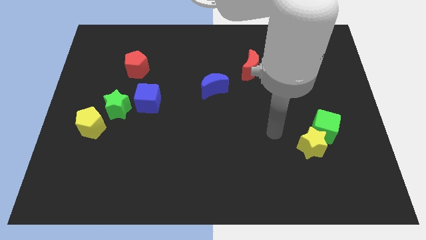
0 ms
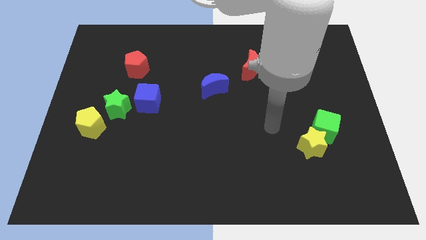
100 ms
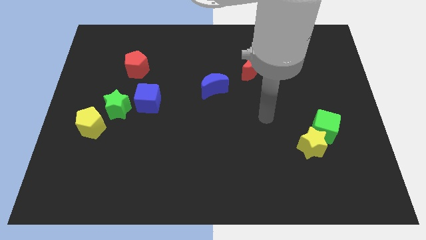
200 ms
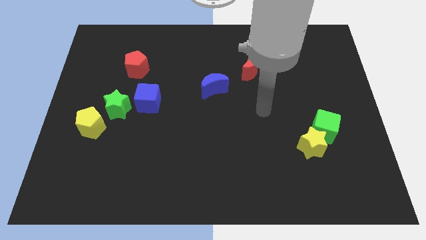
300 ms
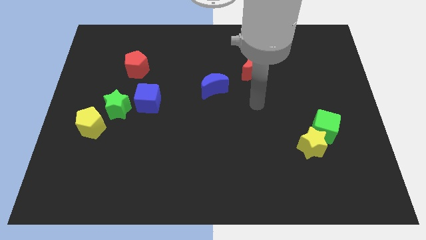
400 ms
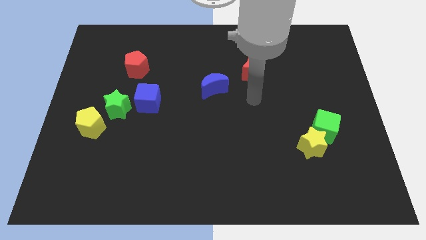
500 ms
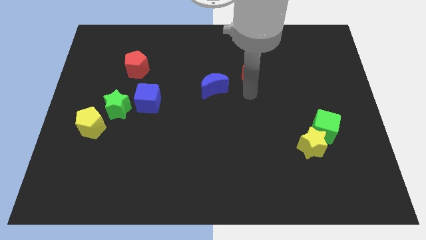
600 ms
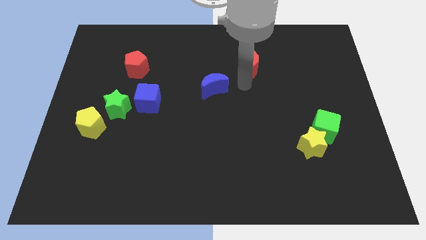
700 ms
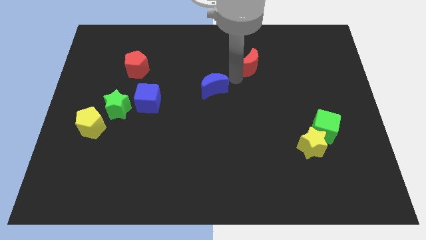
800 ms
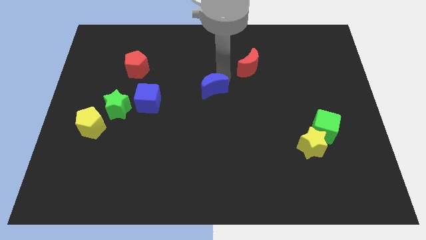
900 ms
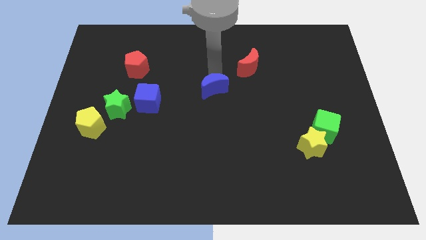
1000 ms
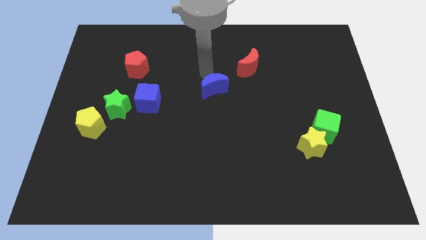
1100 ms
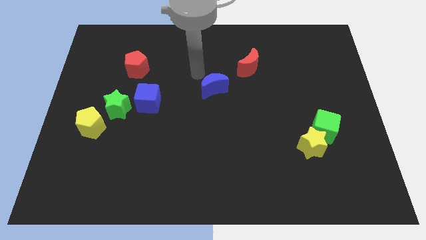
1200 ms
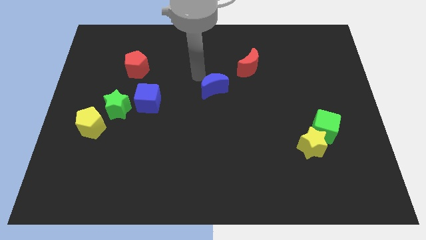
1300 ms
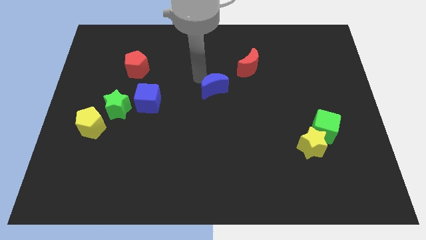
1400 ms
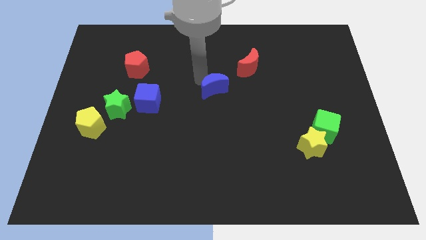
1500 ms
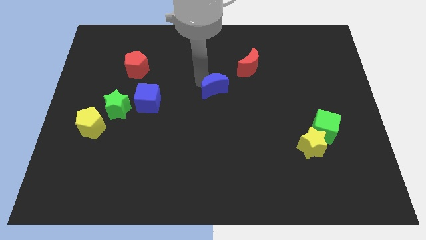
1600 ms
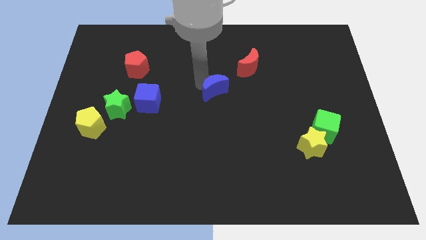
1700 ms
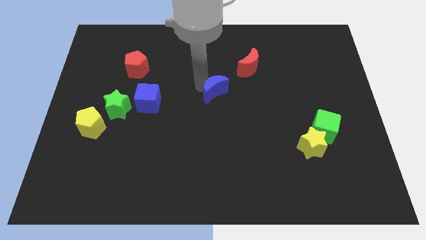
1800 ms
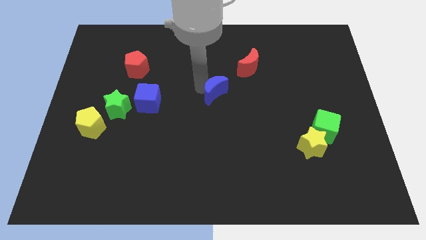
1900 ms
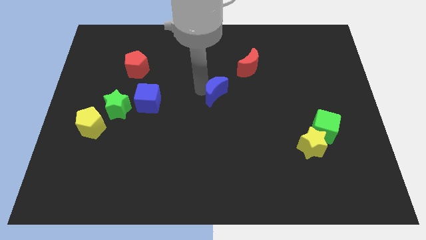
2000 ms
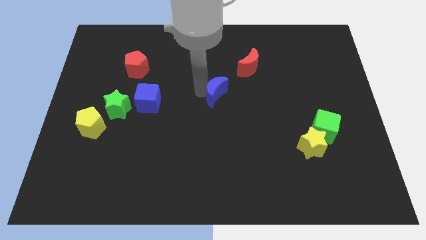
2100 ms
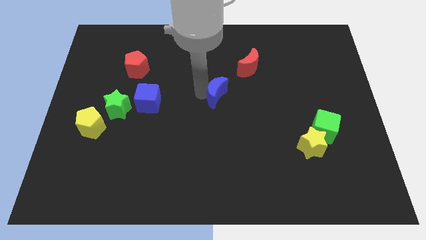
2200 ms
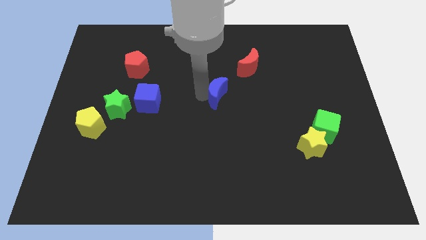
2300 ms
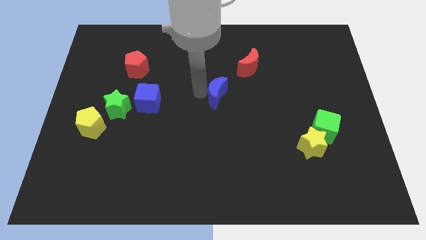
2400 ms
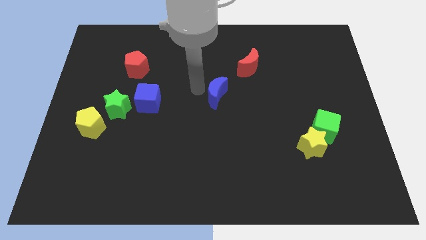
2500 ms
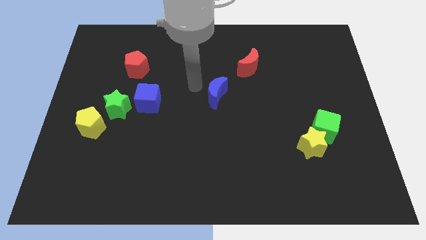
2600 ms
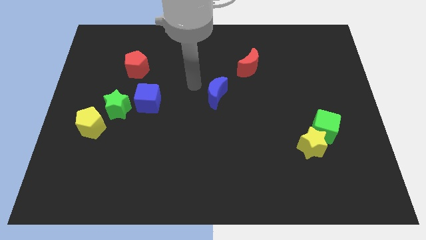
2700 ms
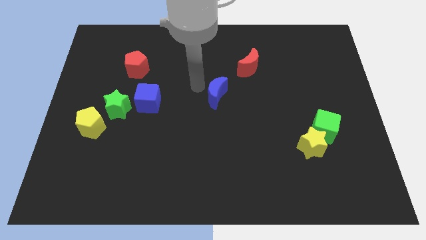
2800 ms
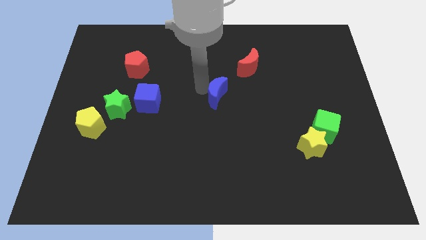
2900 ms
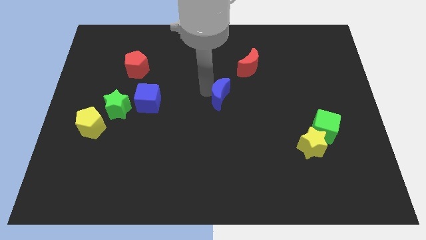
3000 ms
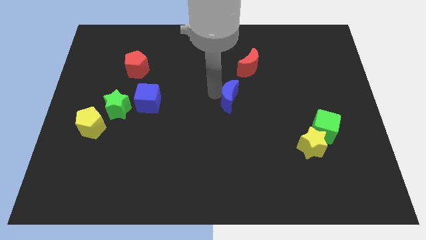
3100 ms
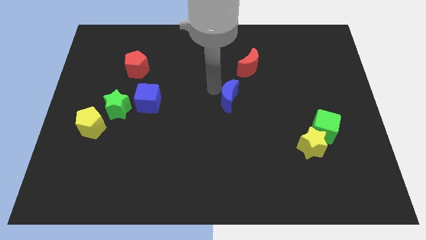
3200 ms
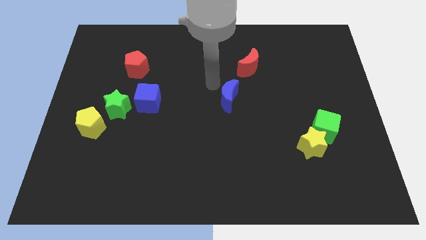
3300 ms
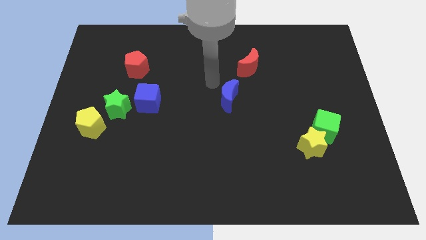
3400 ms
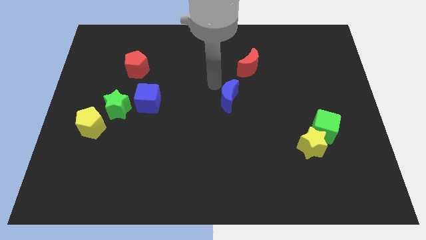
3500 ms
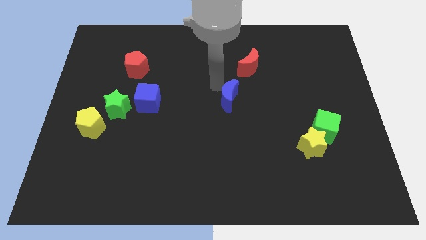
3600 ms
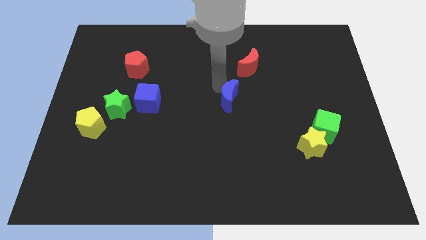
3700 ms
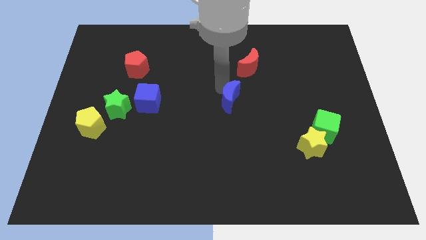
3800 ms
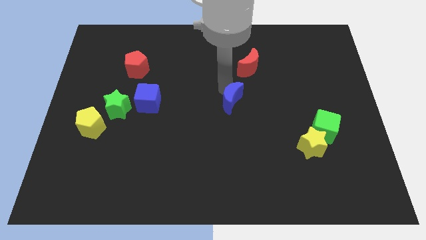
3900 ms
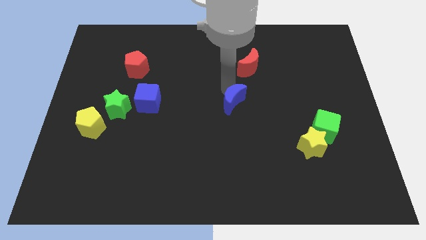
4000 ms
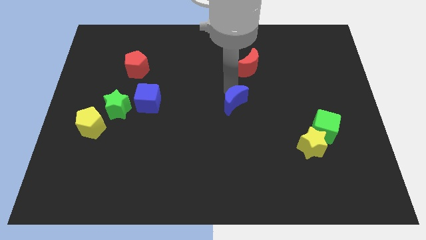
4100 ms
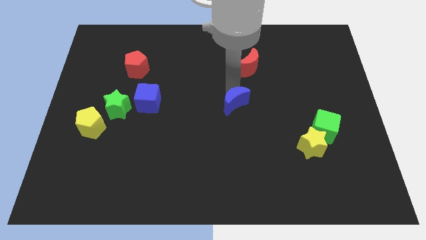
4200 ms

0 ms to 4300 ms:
push the blue moon down and to the right diagonally somewhat

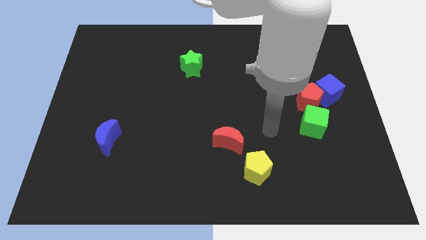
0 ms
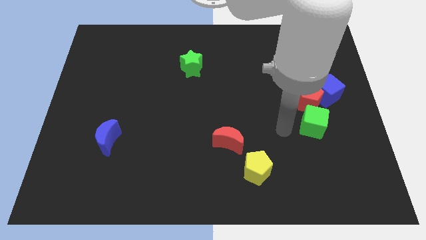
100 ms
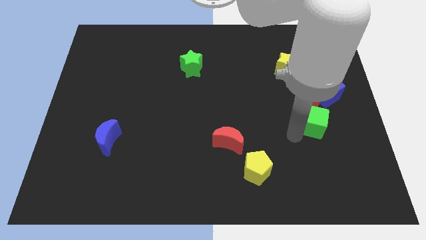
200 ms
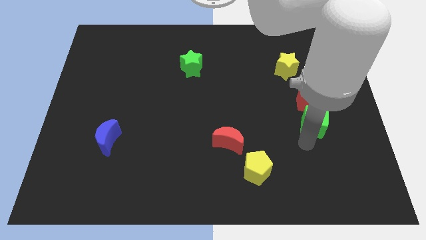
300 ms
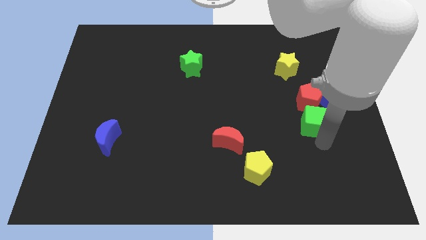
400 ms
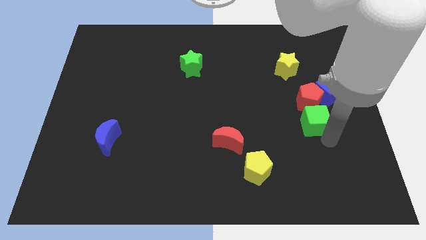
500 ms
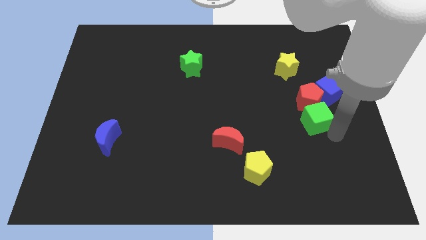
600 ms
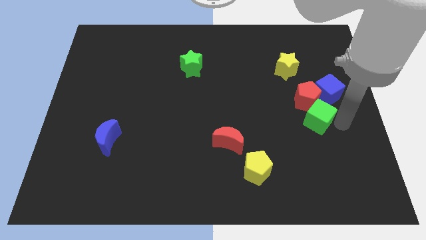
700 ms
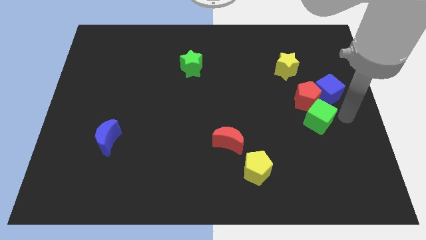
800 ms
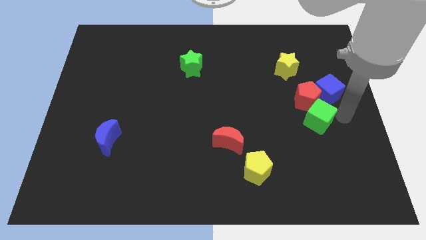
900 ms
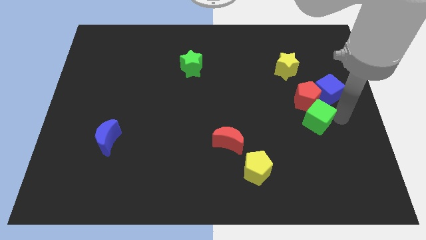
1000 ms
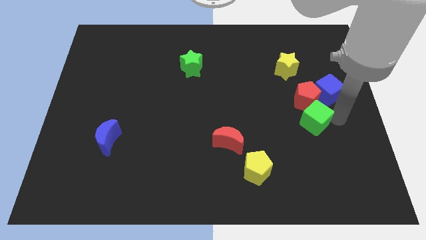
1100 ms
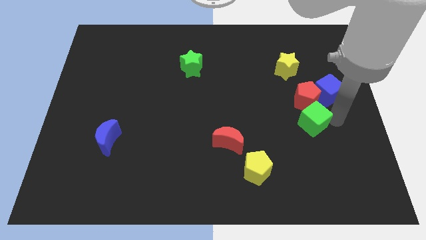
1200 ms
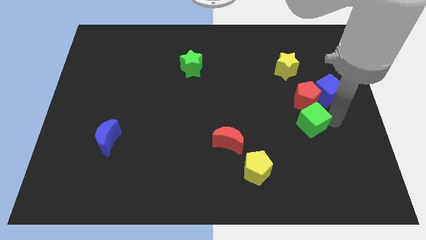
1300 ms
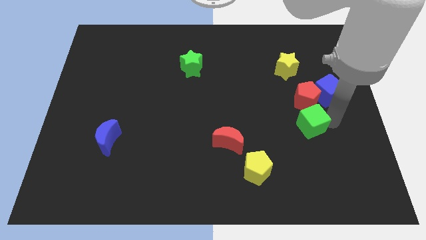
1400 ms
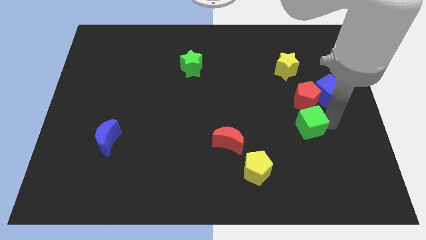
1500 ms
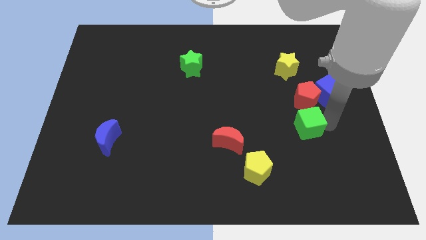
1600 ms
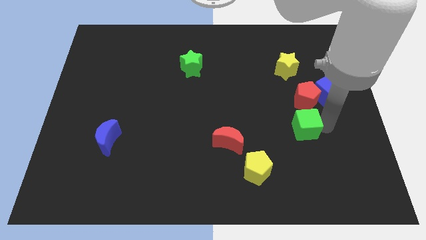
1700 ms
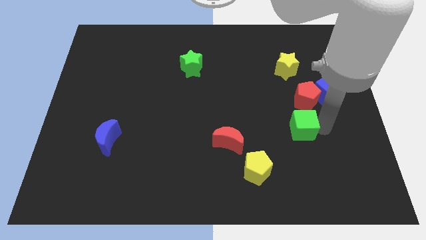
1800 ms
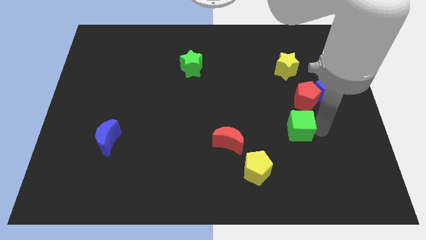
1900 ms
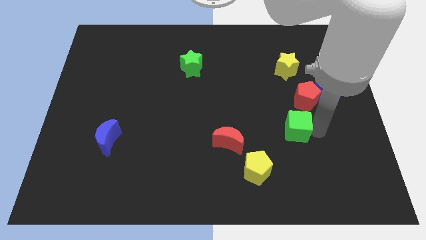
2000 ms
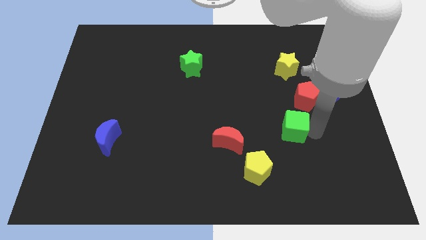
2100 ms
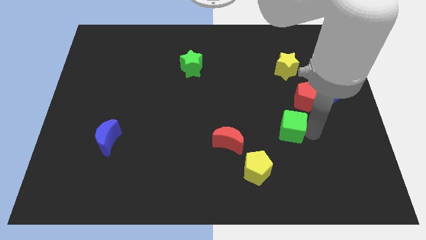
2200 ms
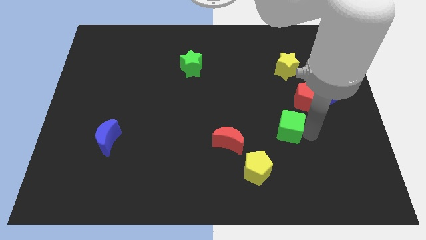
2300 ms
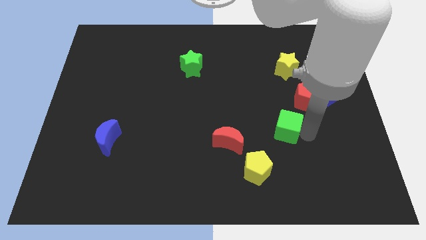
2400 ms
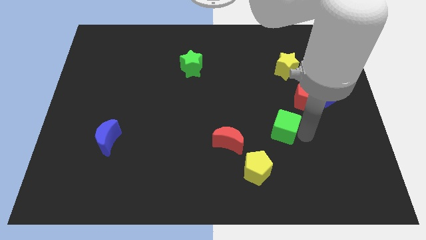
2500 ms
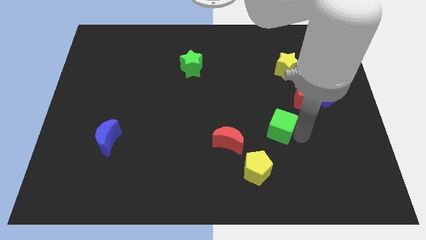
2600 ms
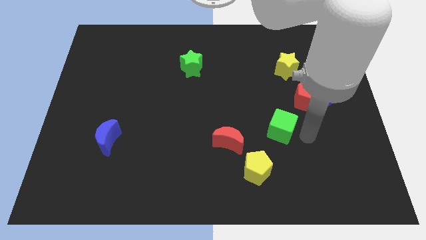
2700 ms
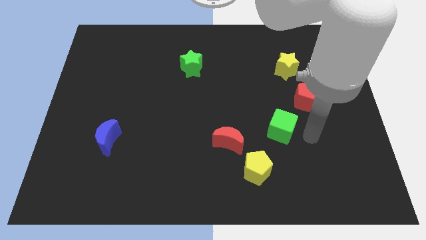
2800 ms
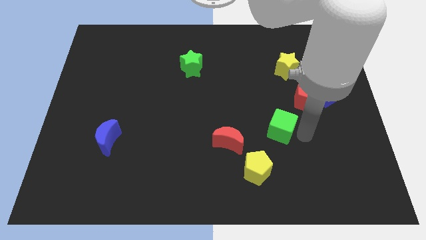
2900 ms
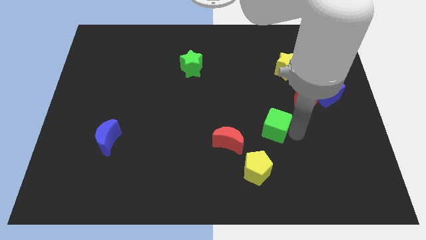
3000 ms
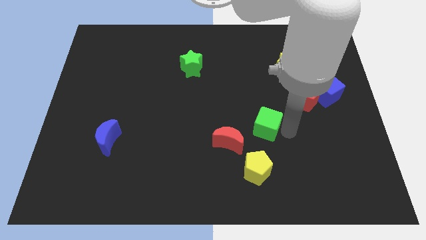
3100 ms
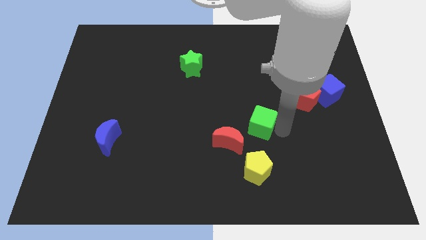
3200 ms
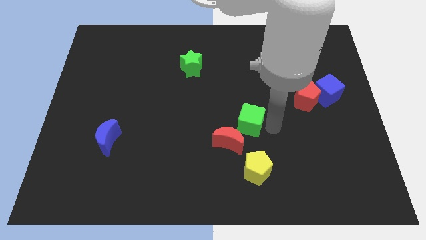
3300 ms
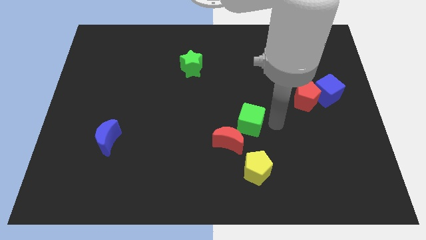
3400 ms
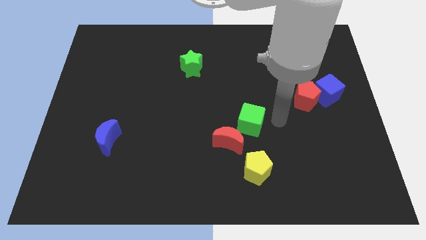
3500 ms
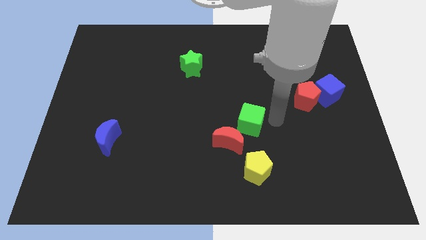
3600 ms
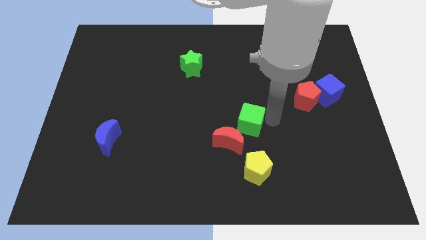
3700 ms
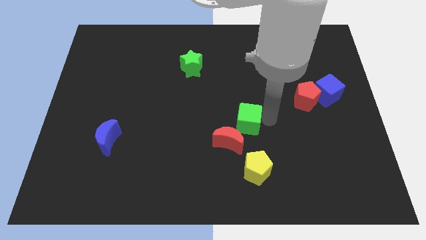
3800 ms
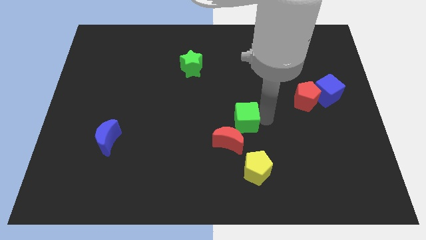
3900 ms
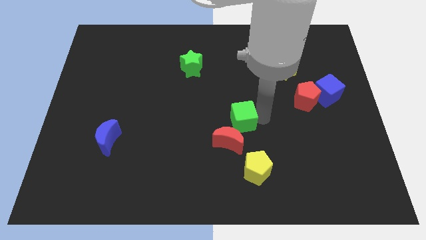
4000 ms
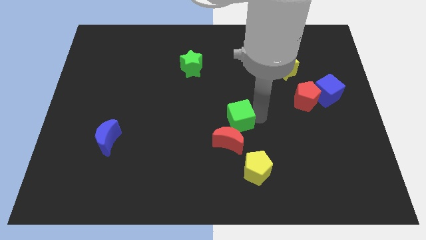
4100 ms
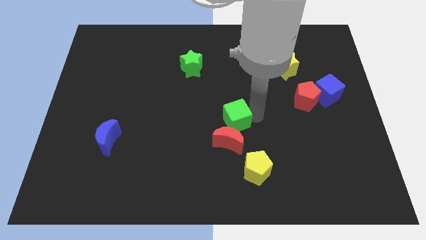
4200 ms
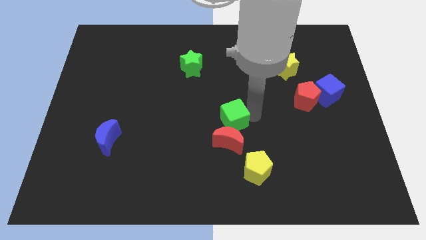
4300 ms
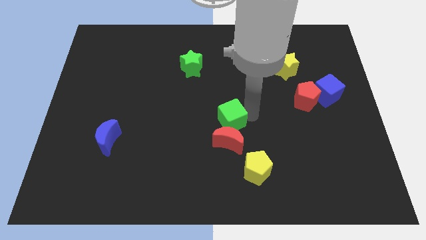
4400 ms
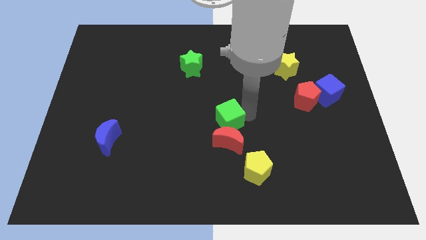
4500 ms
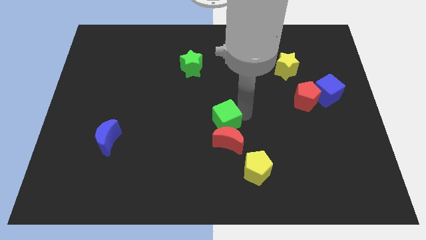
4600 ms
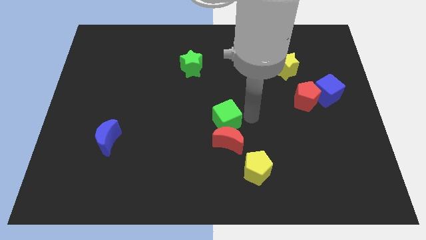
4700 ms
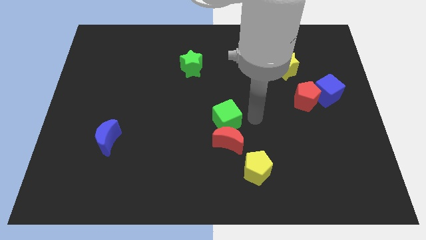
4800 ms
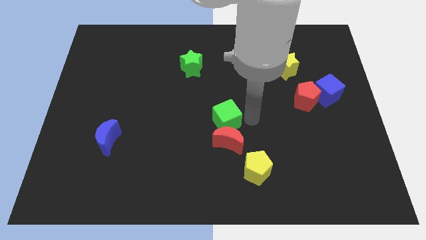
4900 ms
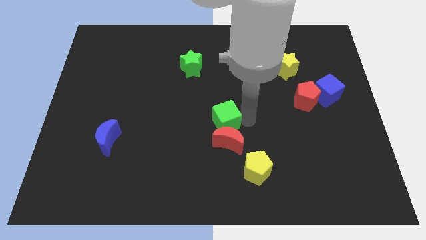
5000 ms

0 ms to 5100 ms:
move the green cube left
